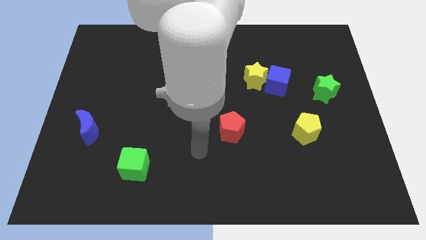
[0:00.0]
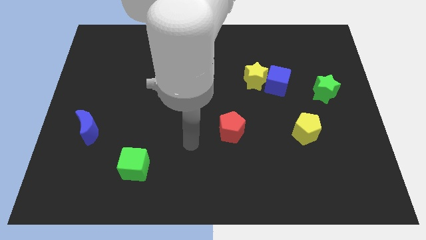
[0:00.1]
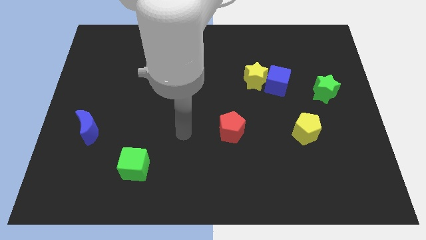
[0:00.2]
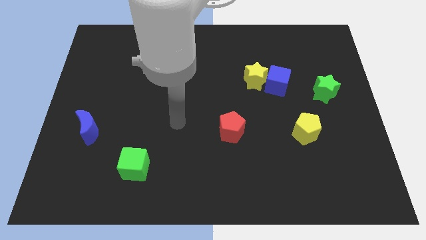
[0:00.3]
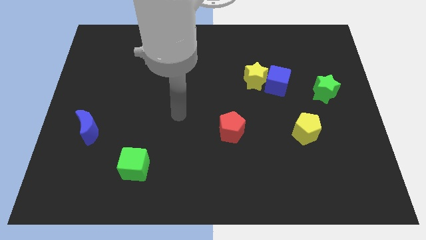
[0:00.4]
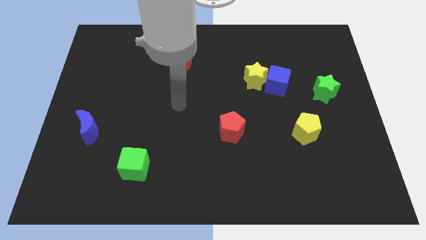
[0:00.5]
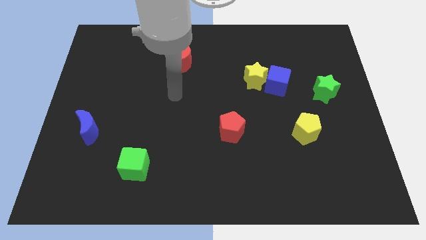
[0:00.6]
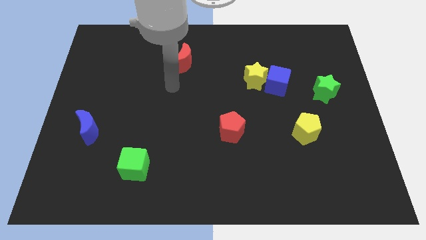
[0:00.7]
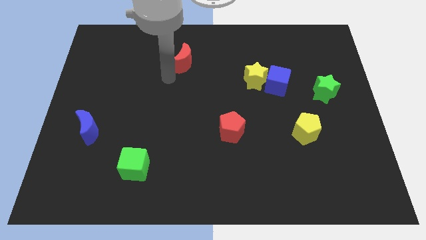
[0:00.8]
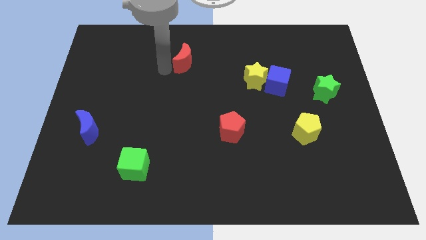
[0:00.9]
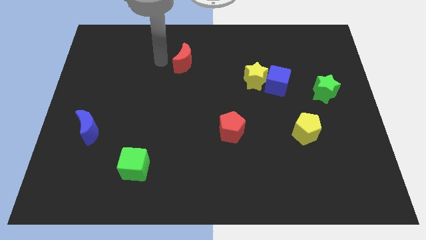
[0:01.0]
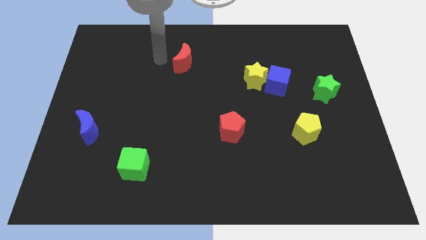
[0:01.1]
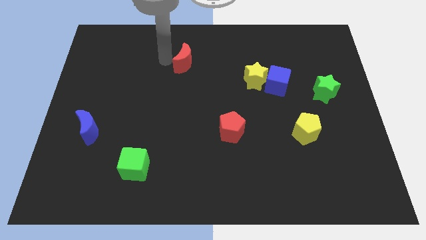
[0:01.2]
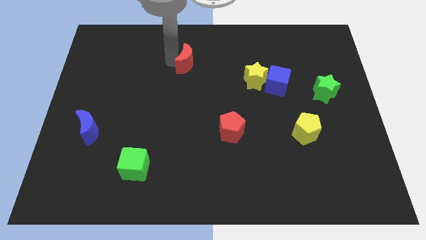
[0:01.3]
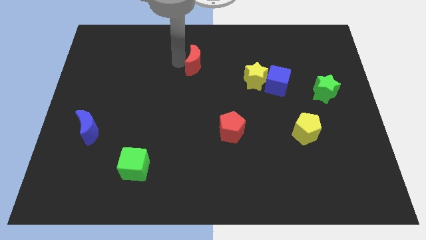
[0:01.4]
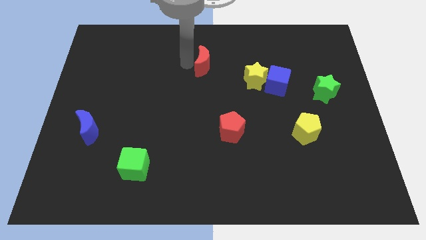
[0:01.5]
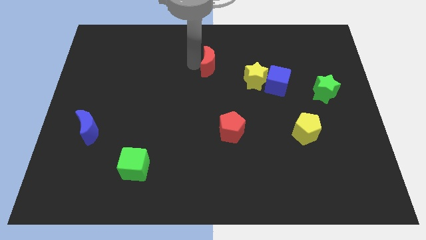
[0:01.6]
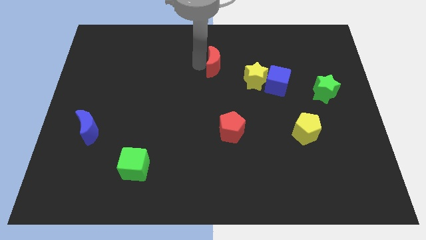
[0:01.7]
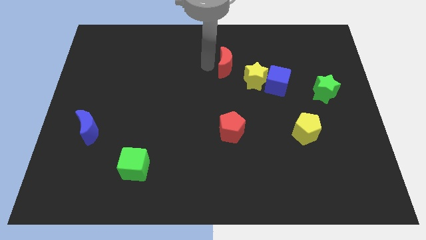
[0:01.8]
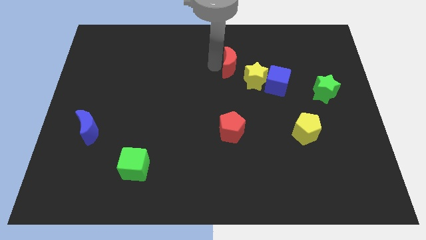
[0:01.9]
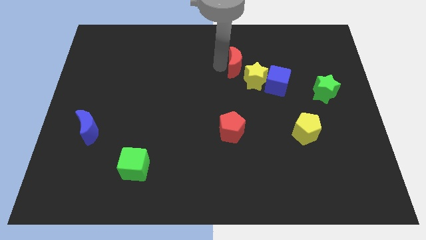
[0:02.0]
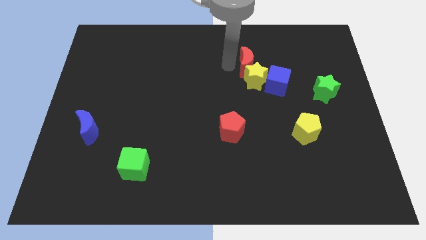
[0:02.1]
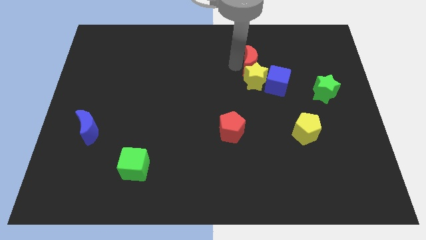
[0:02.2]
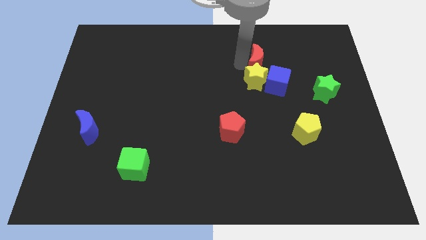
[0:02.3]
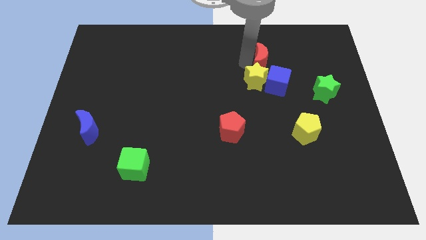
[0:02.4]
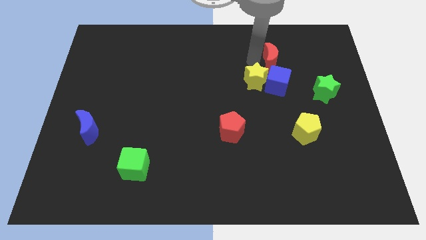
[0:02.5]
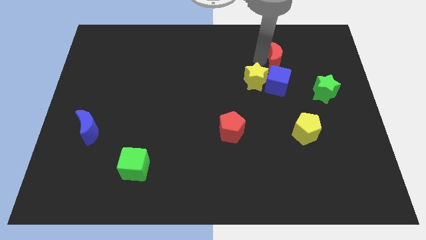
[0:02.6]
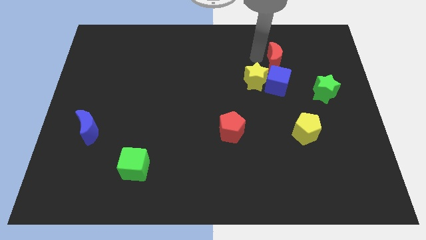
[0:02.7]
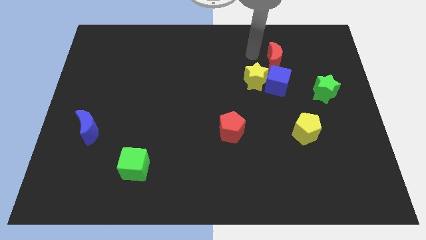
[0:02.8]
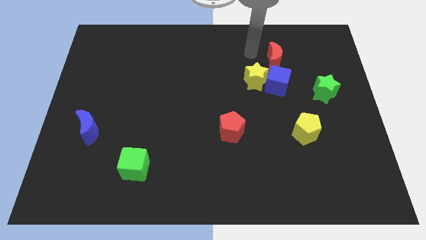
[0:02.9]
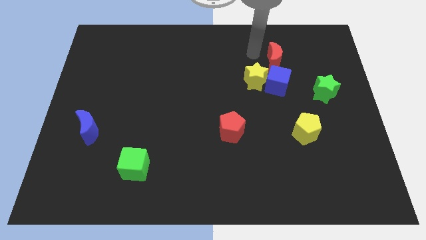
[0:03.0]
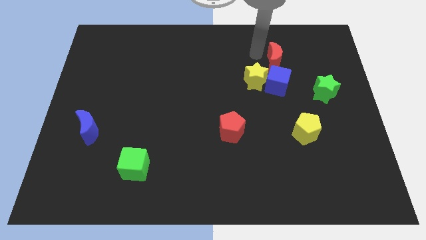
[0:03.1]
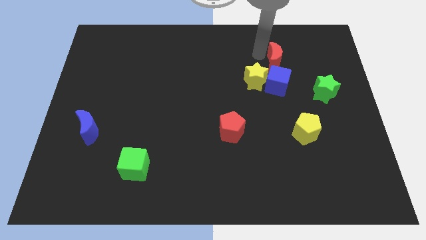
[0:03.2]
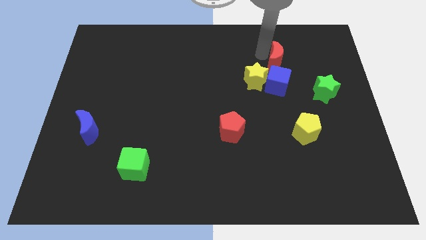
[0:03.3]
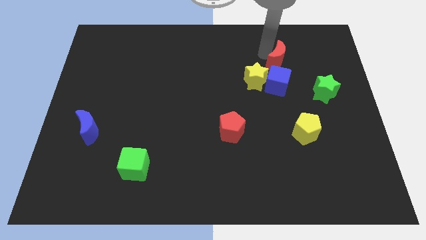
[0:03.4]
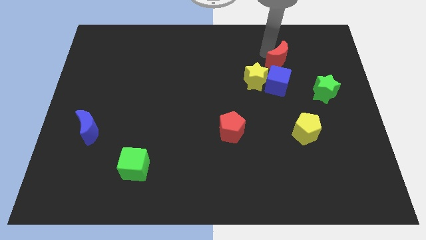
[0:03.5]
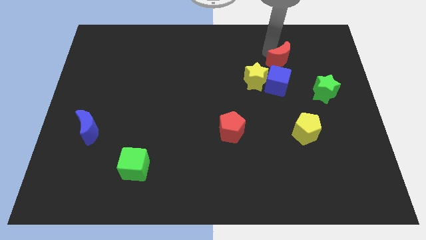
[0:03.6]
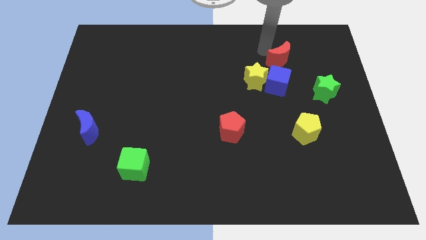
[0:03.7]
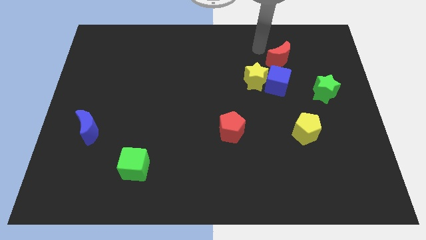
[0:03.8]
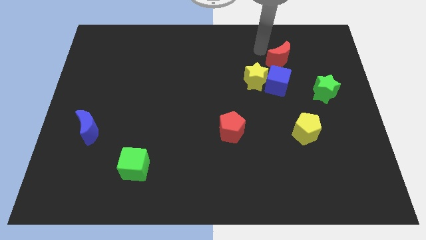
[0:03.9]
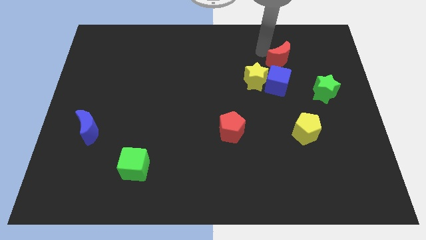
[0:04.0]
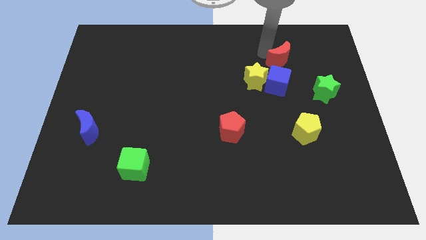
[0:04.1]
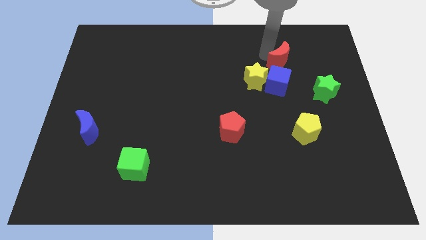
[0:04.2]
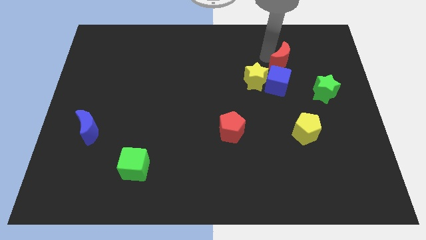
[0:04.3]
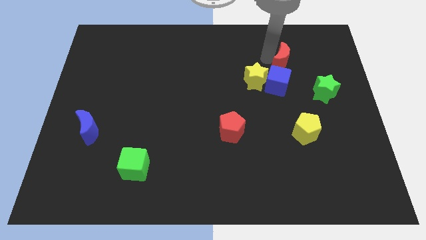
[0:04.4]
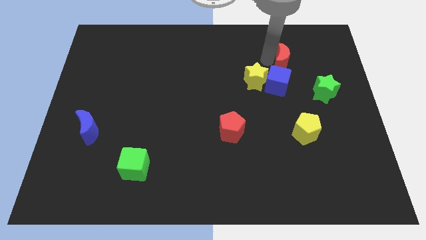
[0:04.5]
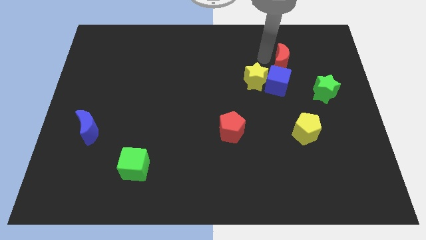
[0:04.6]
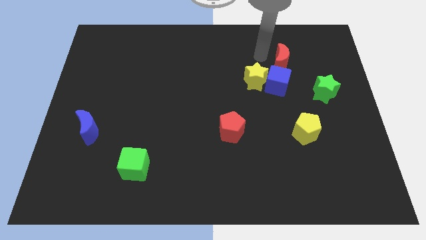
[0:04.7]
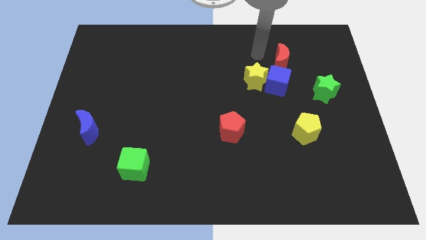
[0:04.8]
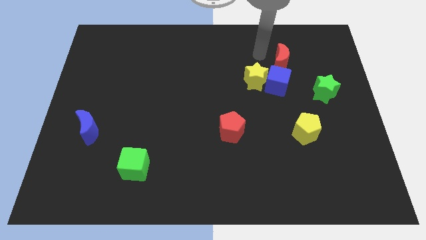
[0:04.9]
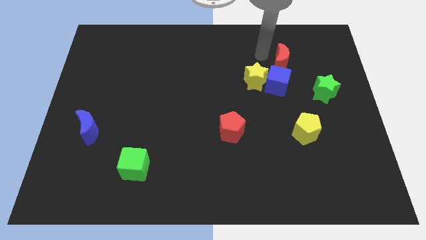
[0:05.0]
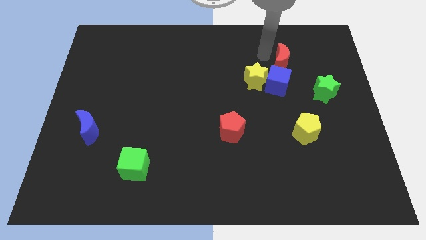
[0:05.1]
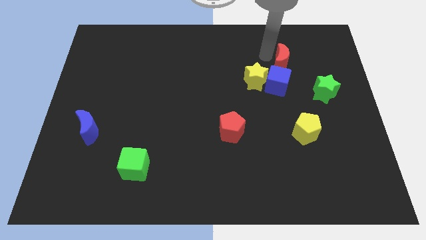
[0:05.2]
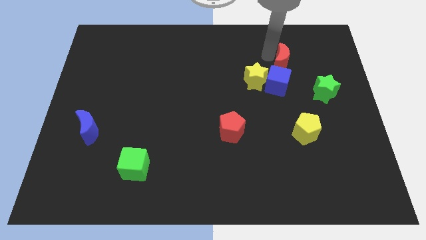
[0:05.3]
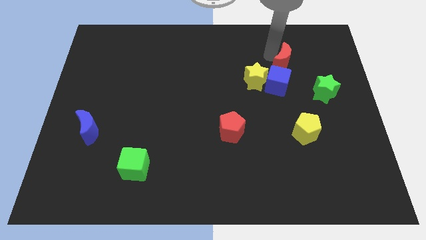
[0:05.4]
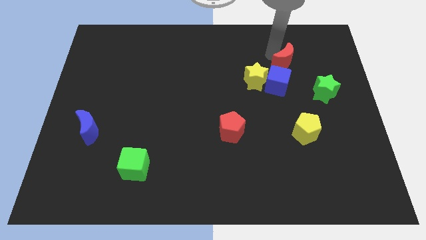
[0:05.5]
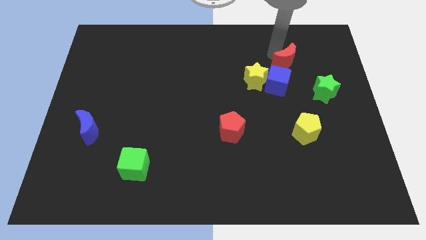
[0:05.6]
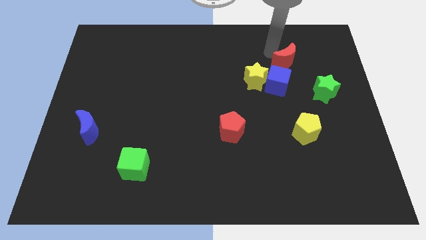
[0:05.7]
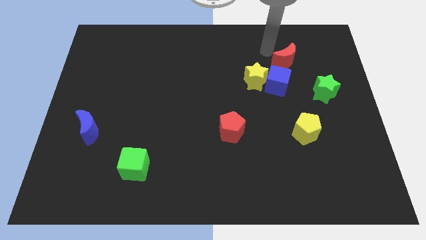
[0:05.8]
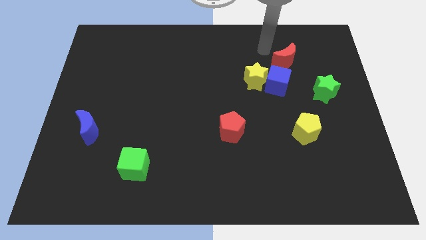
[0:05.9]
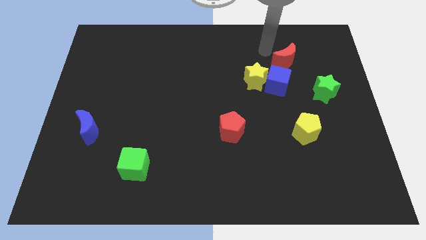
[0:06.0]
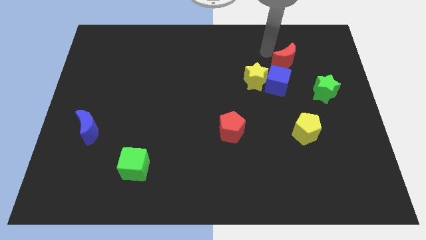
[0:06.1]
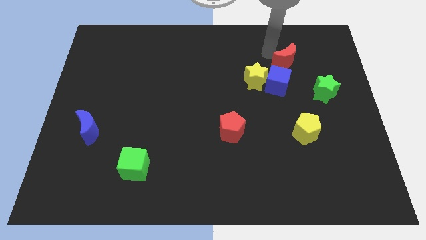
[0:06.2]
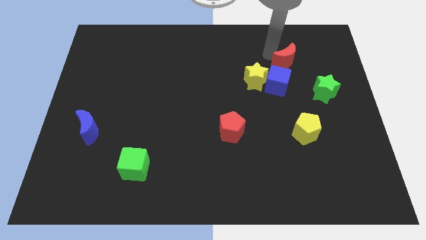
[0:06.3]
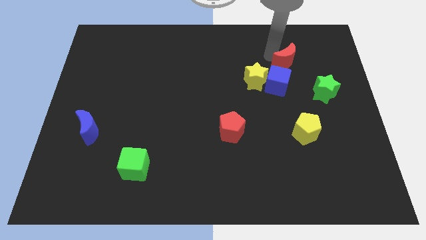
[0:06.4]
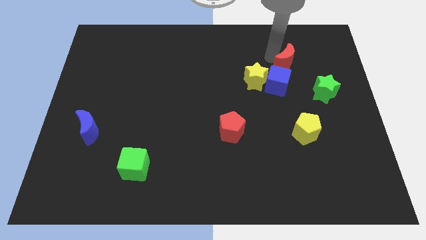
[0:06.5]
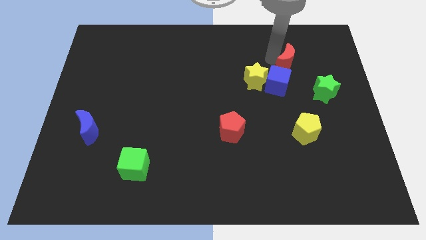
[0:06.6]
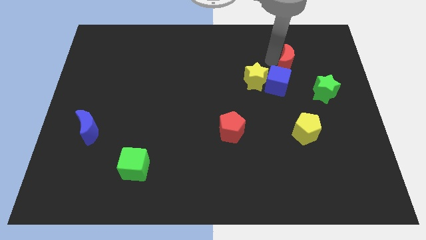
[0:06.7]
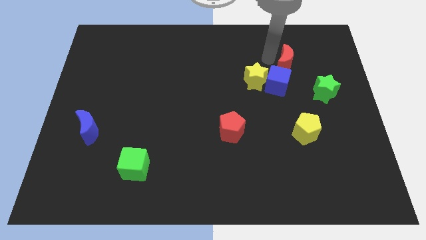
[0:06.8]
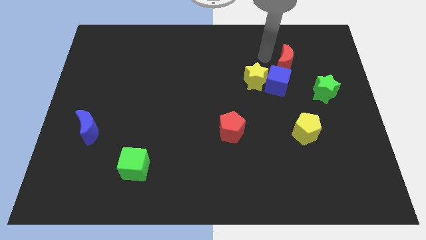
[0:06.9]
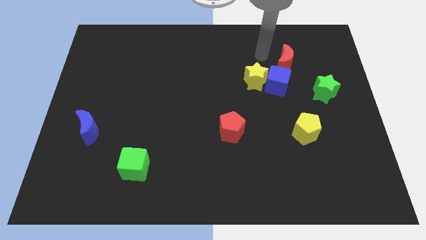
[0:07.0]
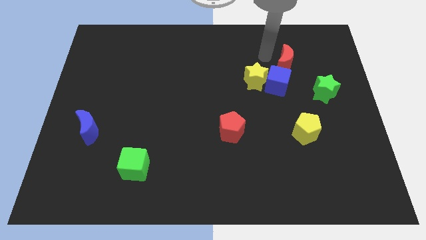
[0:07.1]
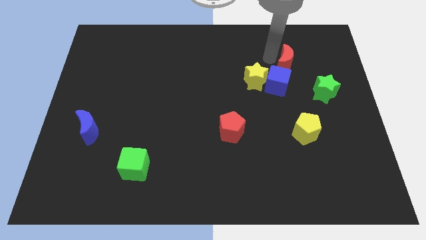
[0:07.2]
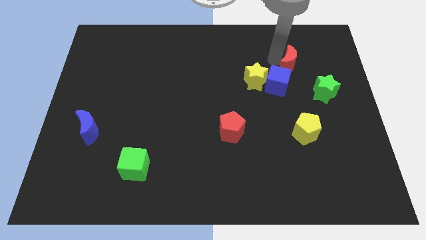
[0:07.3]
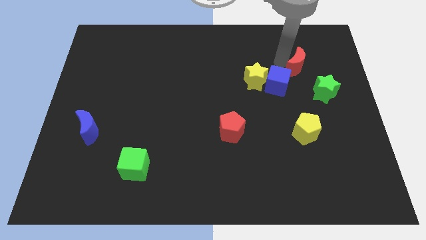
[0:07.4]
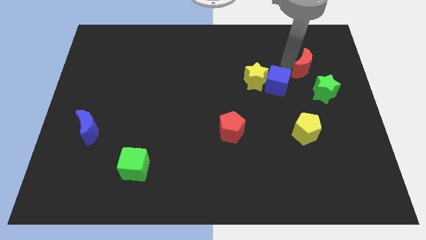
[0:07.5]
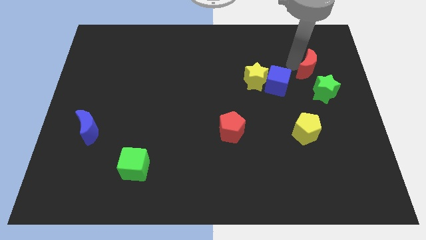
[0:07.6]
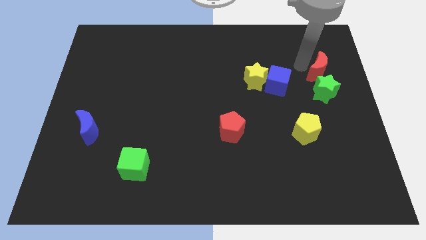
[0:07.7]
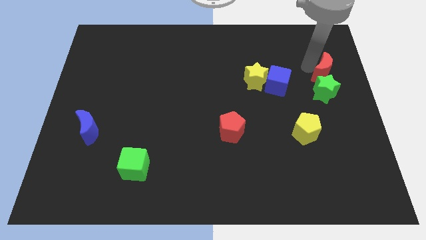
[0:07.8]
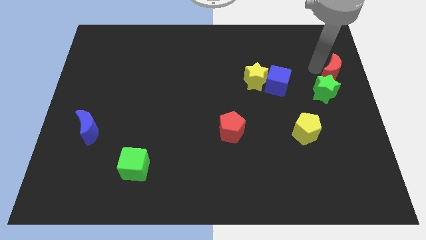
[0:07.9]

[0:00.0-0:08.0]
move the red moon to the right side

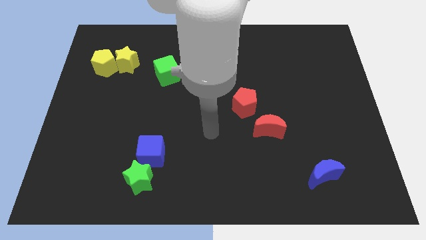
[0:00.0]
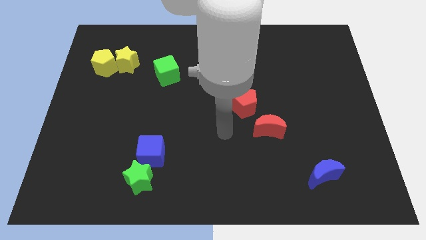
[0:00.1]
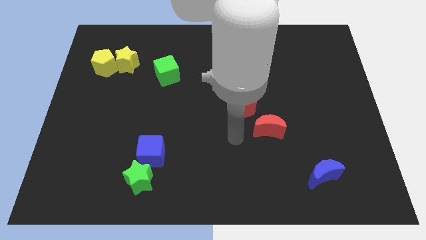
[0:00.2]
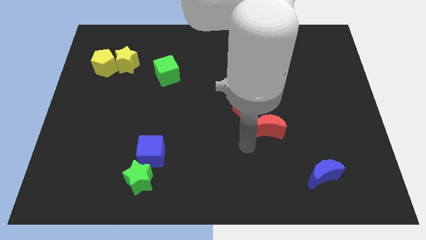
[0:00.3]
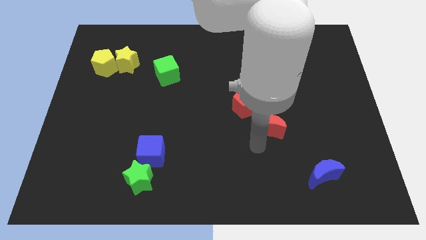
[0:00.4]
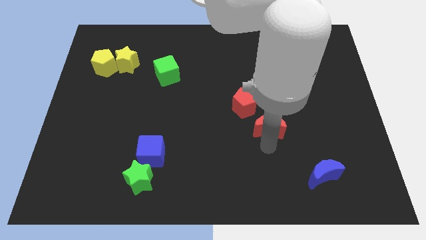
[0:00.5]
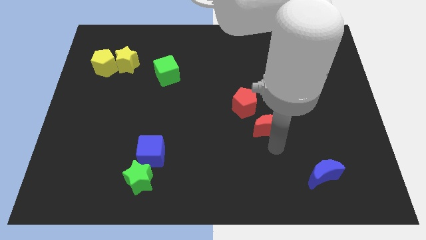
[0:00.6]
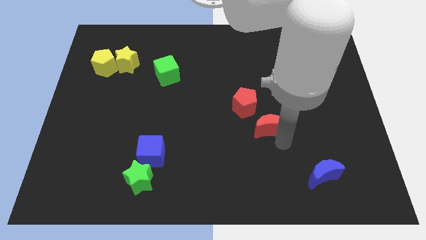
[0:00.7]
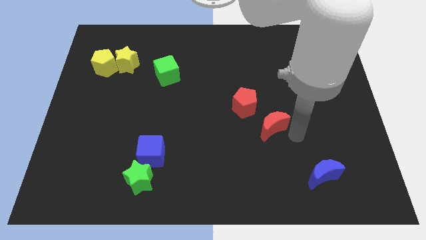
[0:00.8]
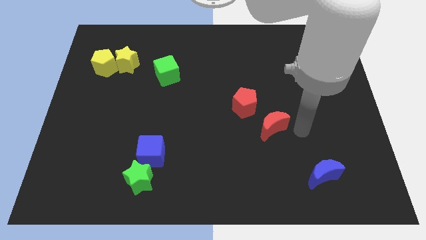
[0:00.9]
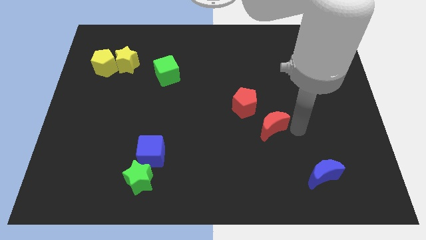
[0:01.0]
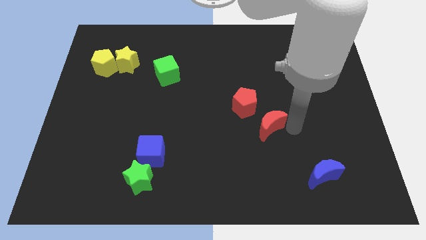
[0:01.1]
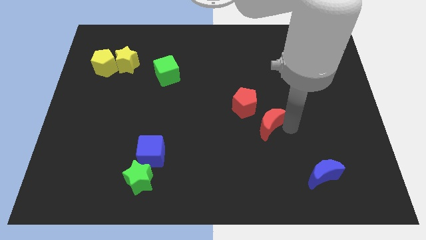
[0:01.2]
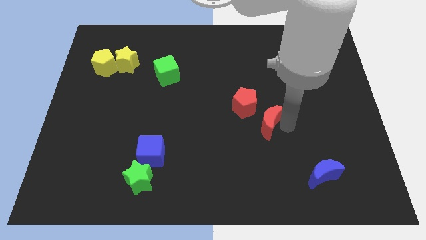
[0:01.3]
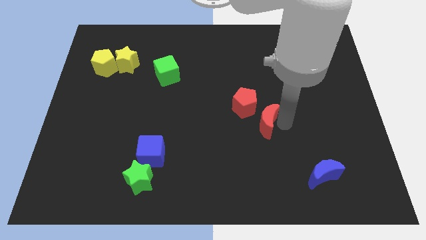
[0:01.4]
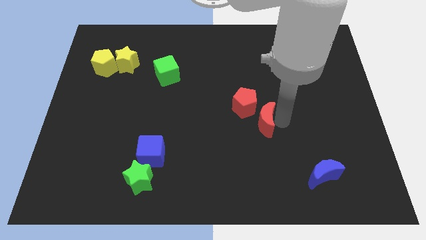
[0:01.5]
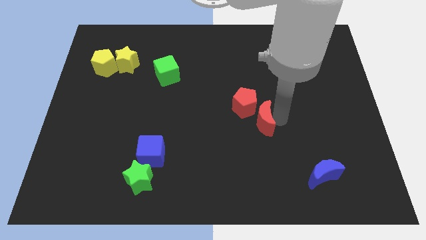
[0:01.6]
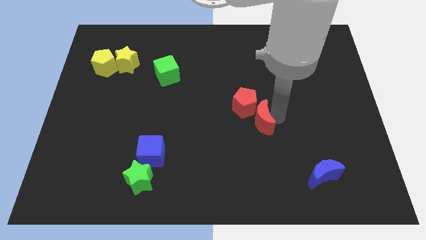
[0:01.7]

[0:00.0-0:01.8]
move the red moon to the center
